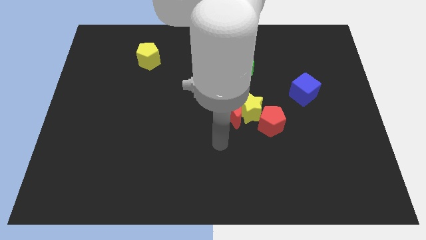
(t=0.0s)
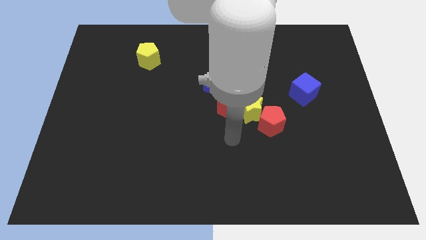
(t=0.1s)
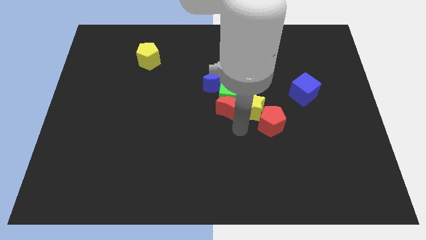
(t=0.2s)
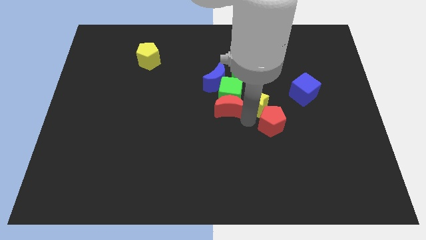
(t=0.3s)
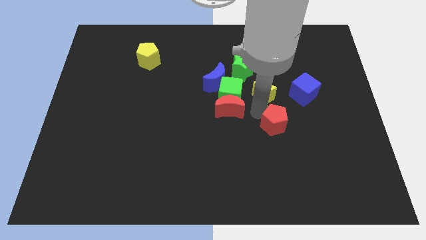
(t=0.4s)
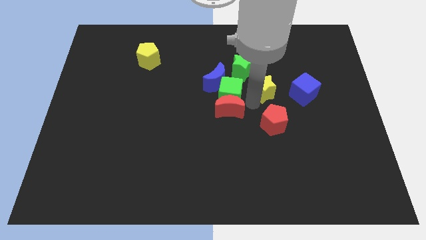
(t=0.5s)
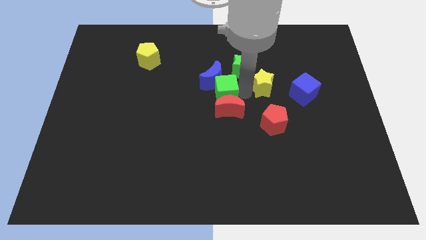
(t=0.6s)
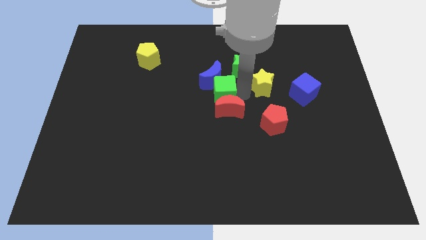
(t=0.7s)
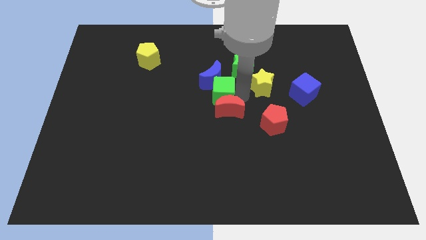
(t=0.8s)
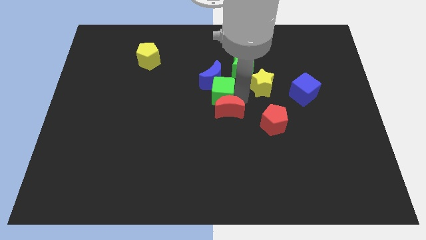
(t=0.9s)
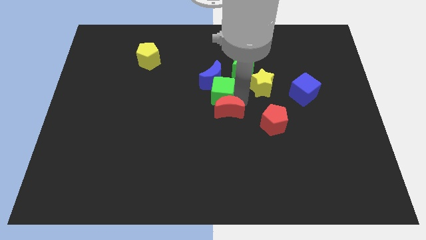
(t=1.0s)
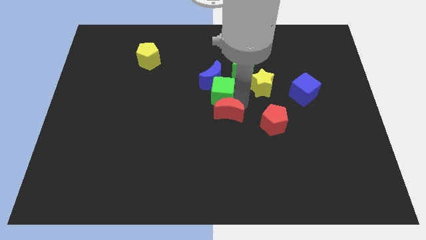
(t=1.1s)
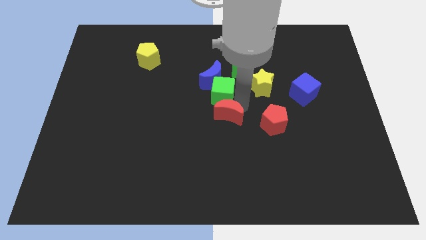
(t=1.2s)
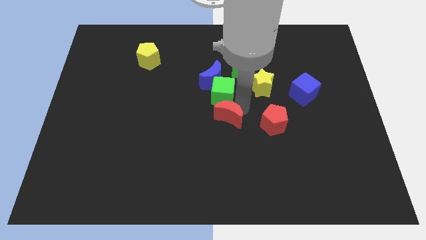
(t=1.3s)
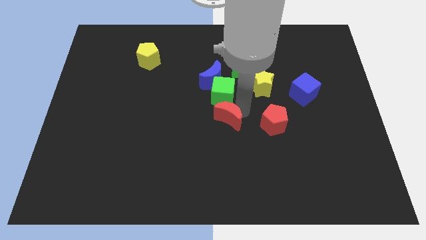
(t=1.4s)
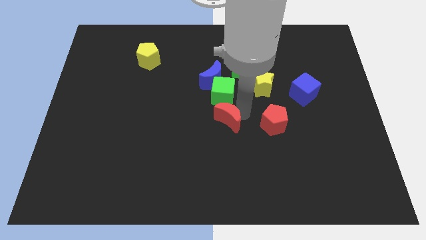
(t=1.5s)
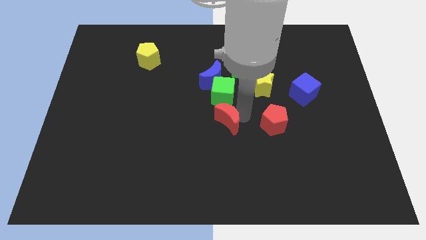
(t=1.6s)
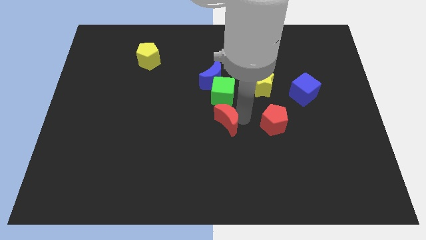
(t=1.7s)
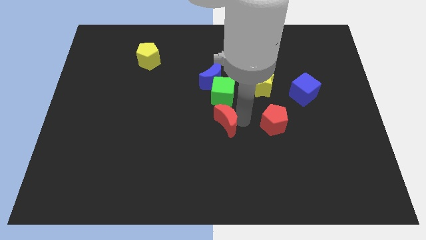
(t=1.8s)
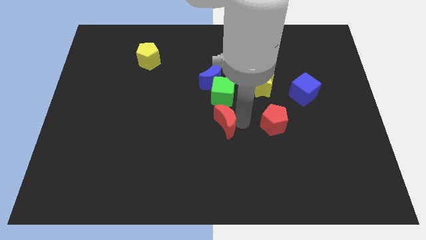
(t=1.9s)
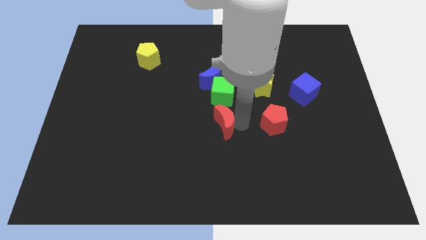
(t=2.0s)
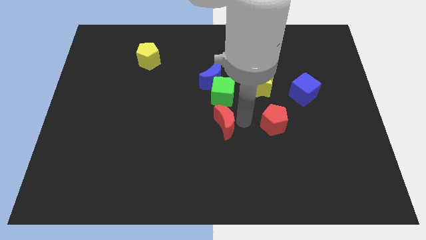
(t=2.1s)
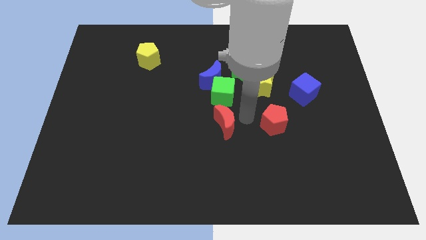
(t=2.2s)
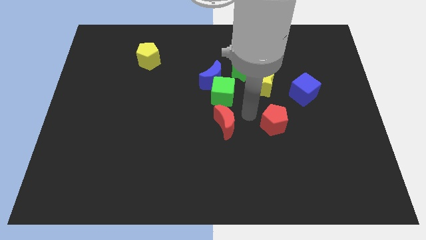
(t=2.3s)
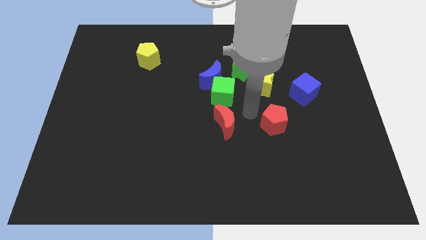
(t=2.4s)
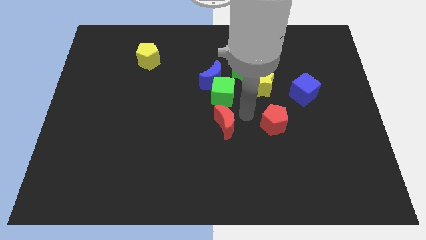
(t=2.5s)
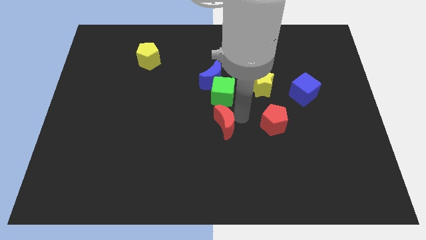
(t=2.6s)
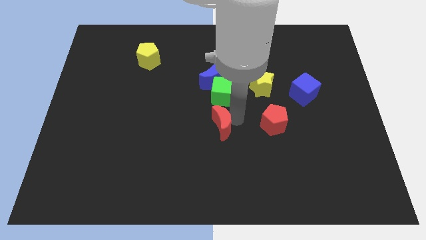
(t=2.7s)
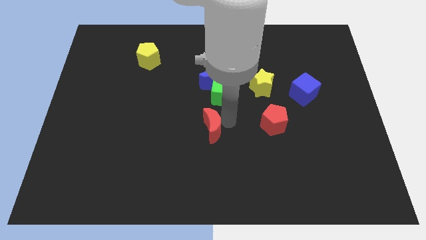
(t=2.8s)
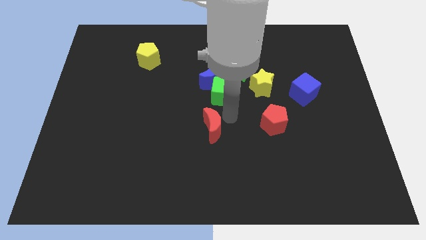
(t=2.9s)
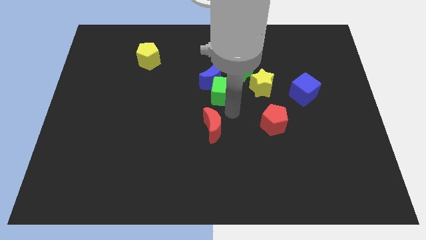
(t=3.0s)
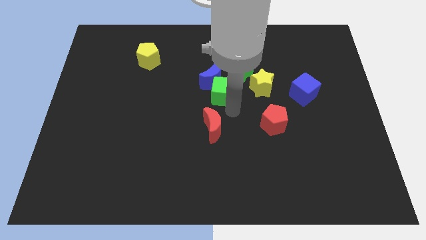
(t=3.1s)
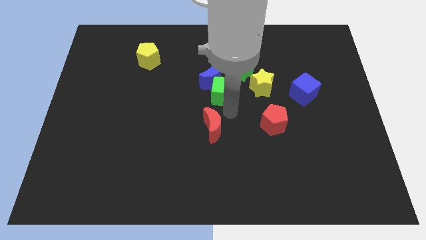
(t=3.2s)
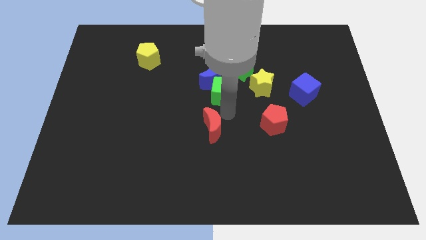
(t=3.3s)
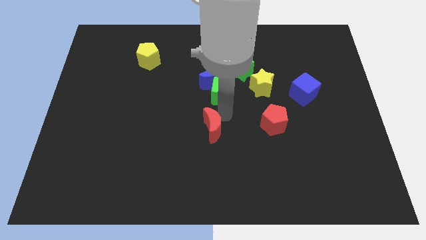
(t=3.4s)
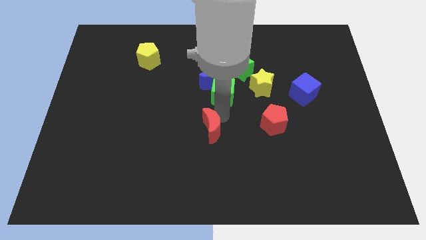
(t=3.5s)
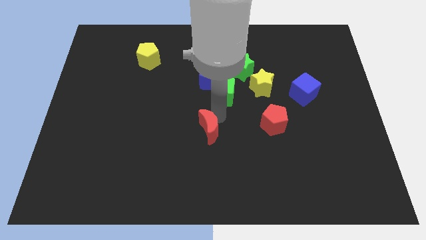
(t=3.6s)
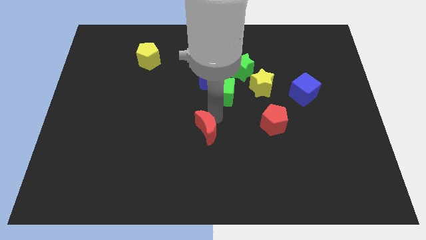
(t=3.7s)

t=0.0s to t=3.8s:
slide the red moon down and then left somewhat

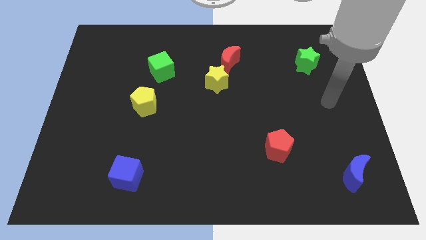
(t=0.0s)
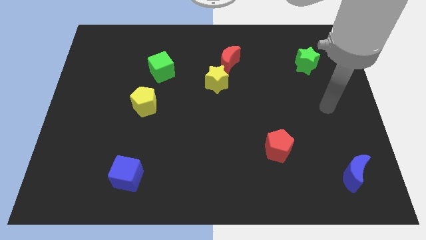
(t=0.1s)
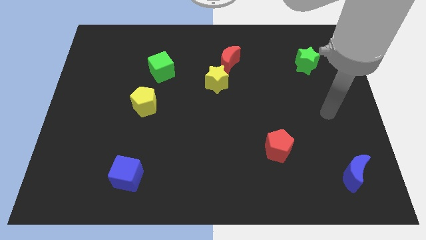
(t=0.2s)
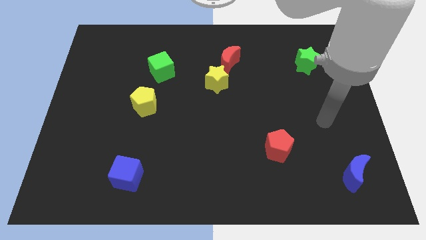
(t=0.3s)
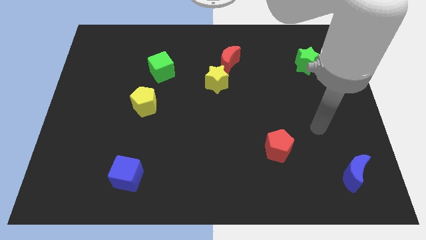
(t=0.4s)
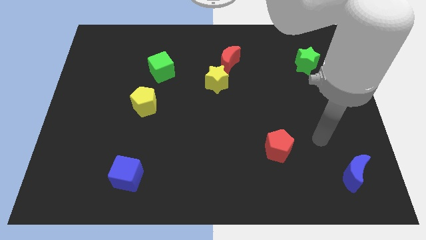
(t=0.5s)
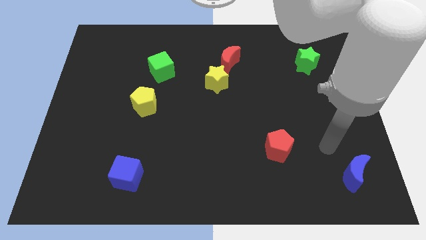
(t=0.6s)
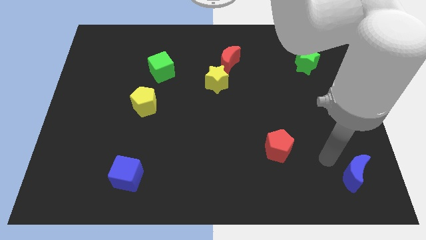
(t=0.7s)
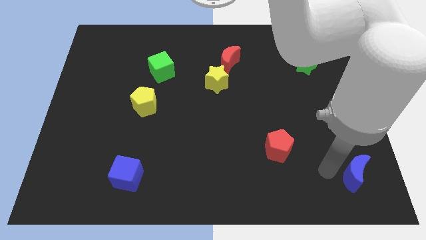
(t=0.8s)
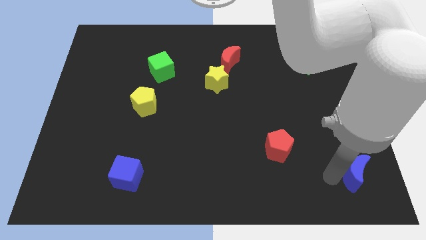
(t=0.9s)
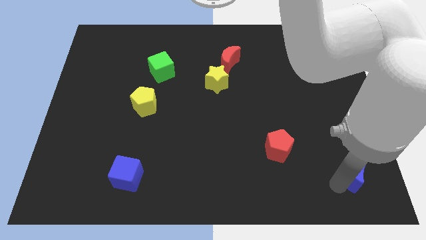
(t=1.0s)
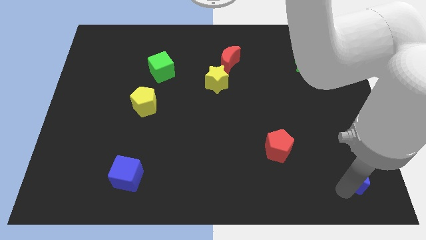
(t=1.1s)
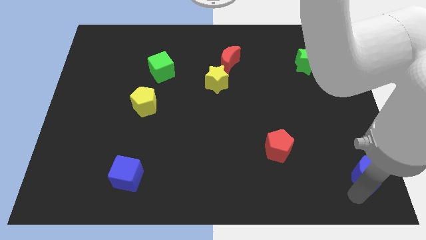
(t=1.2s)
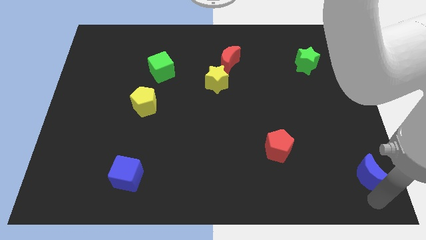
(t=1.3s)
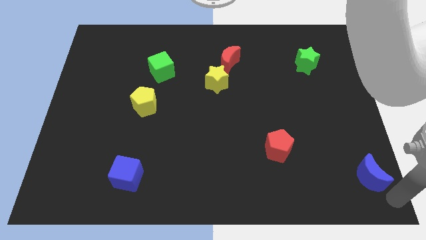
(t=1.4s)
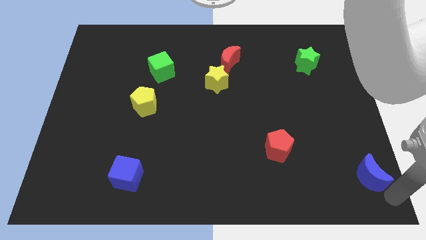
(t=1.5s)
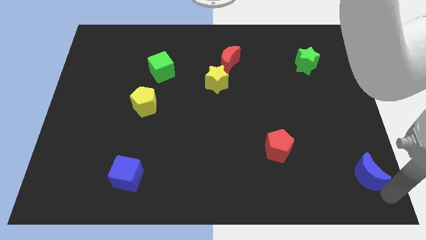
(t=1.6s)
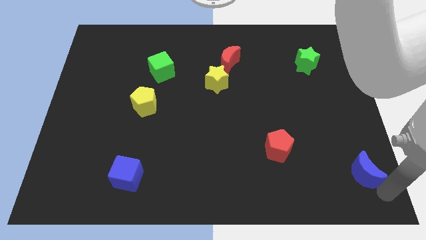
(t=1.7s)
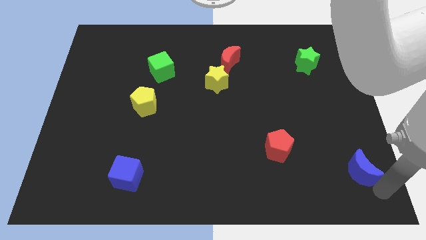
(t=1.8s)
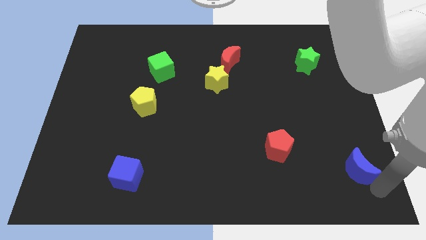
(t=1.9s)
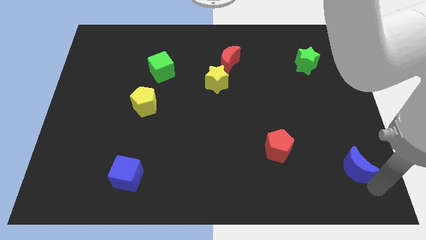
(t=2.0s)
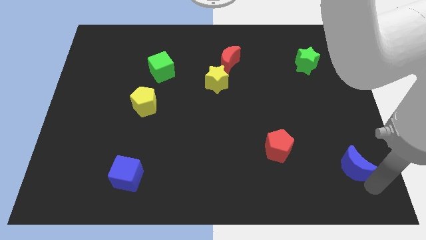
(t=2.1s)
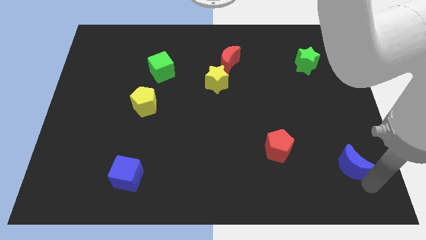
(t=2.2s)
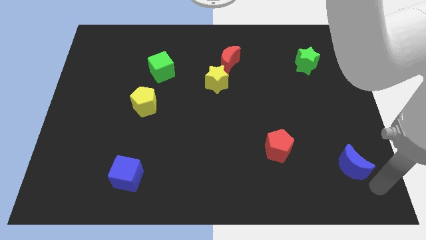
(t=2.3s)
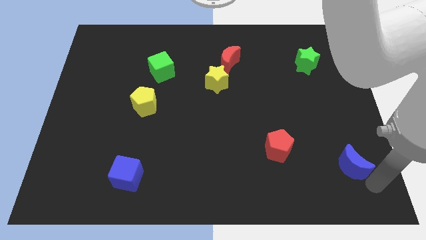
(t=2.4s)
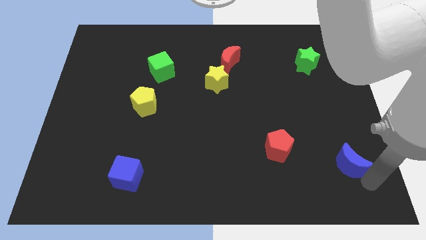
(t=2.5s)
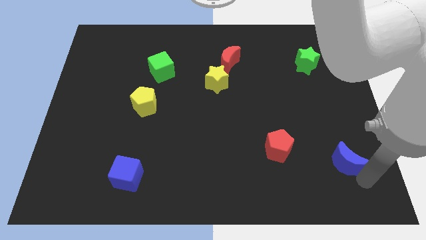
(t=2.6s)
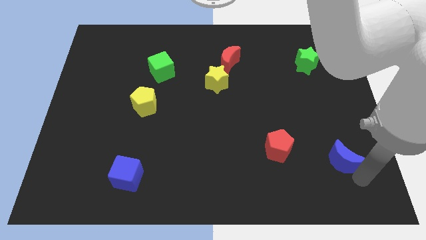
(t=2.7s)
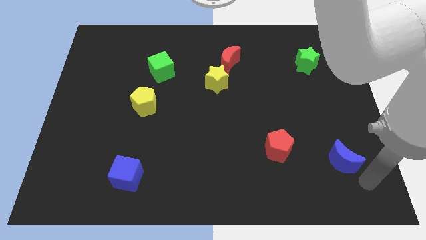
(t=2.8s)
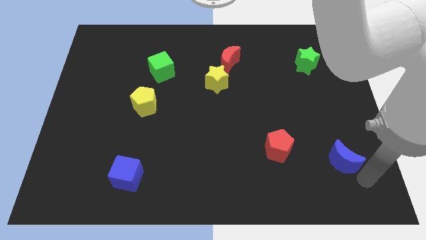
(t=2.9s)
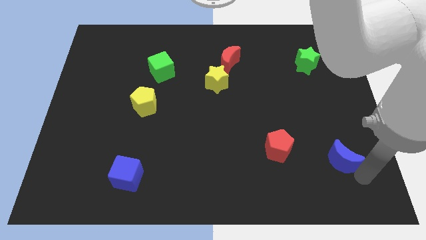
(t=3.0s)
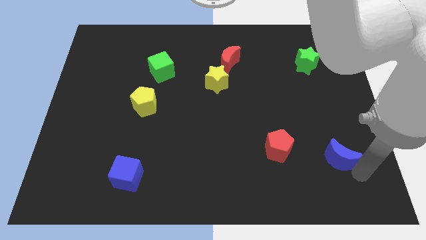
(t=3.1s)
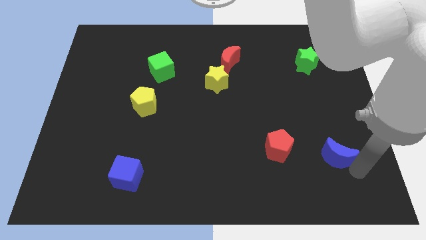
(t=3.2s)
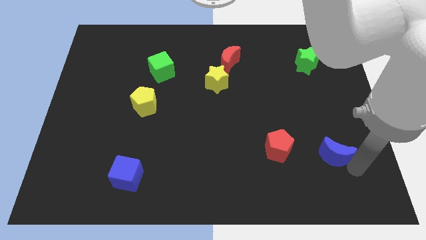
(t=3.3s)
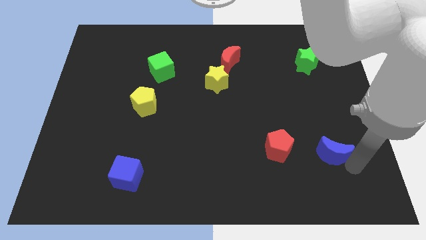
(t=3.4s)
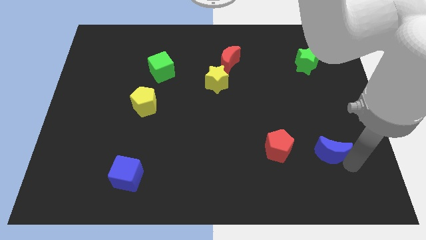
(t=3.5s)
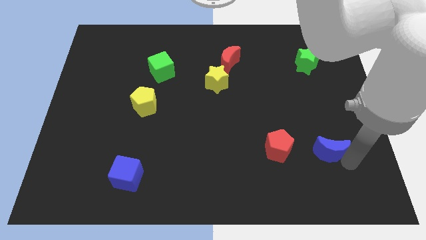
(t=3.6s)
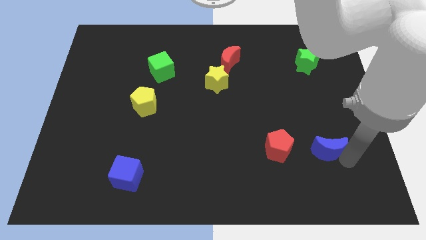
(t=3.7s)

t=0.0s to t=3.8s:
slide the blue moon a bit up and then left
